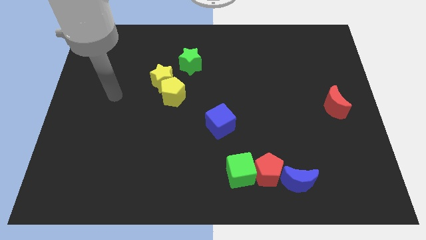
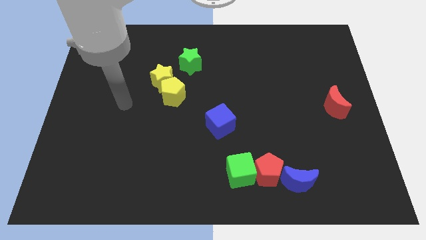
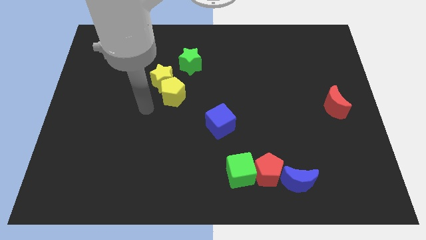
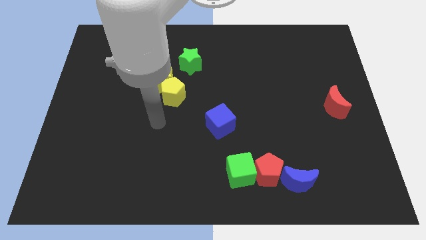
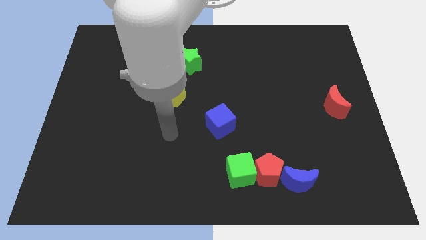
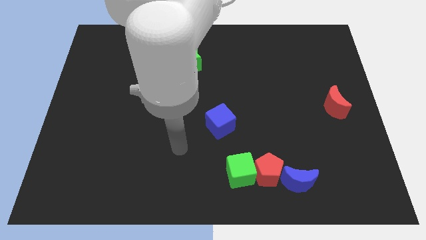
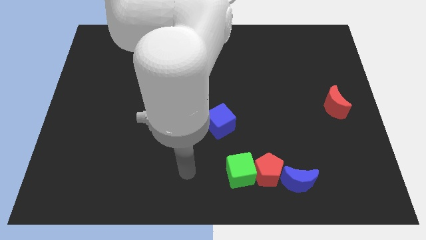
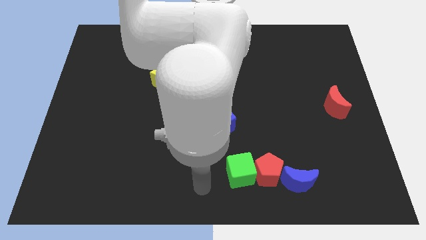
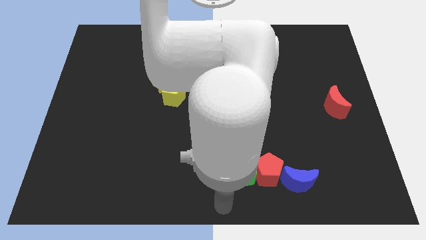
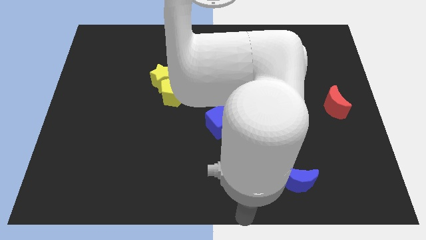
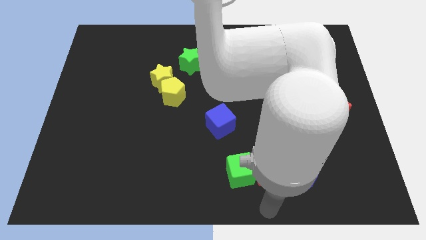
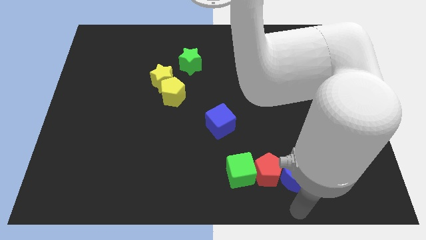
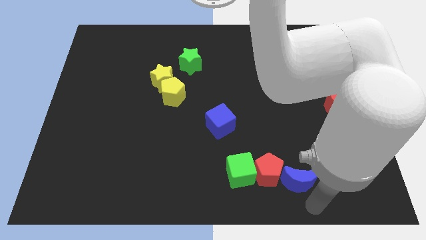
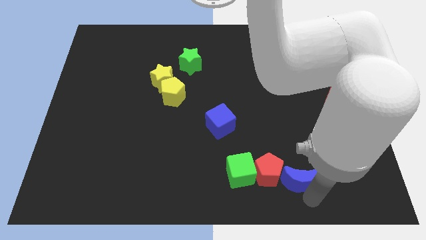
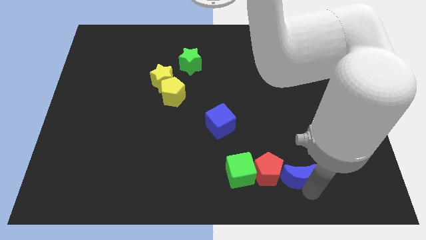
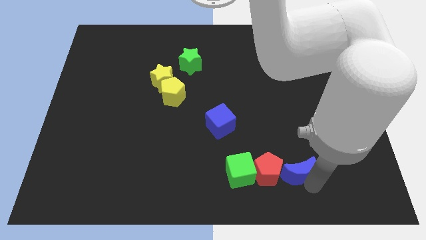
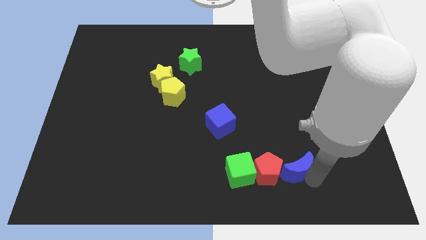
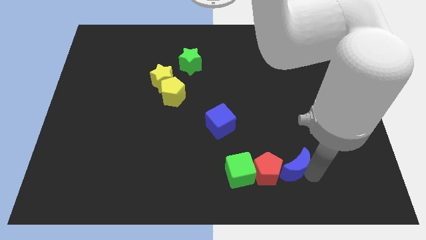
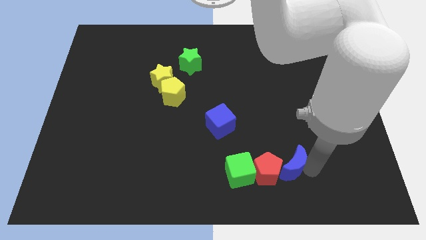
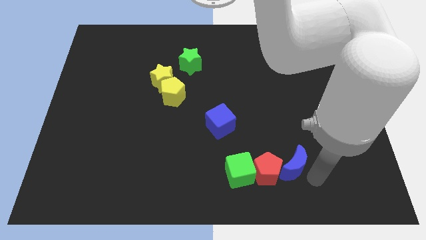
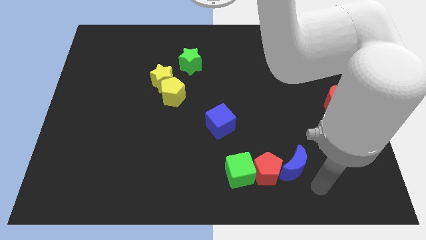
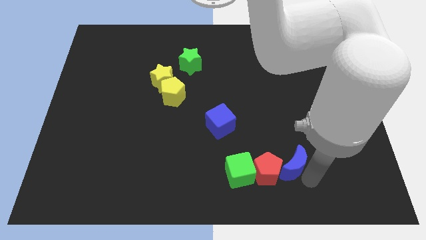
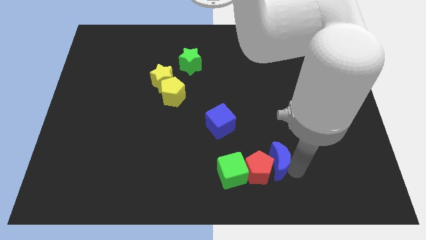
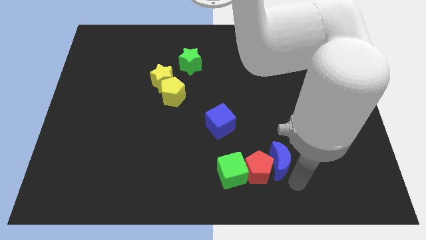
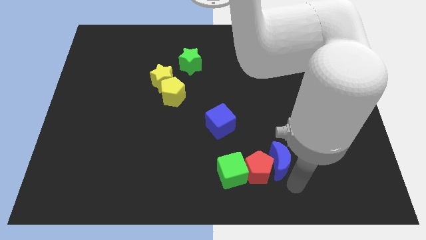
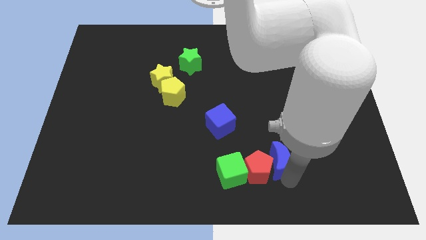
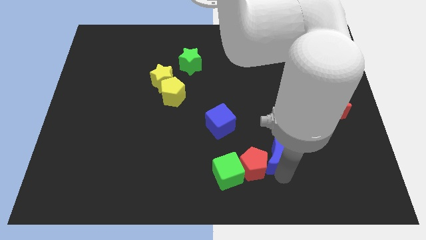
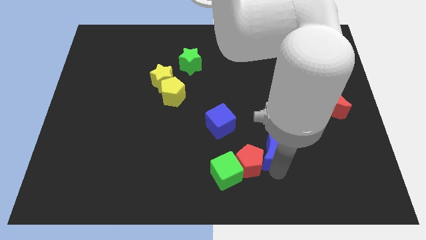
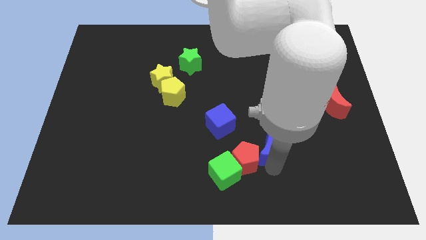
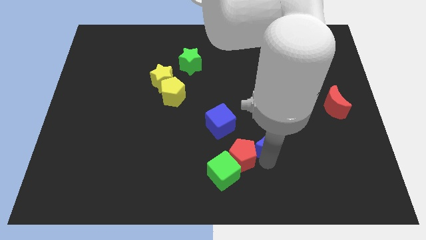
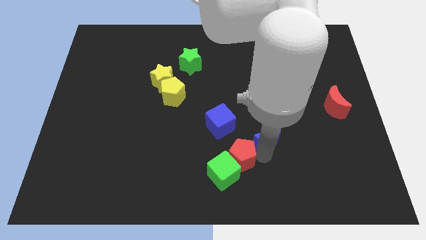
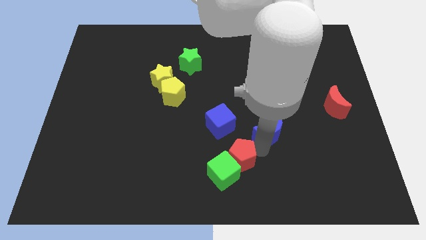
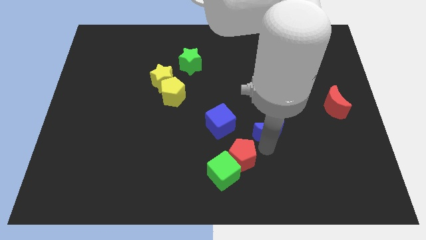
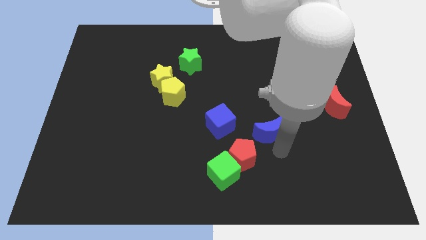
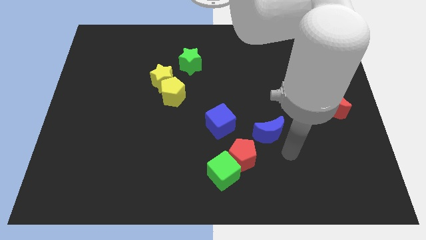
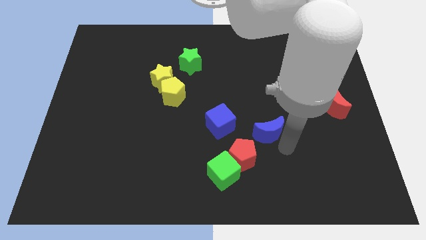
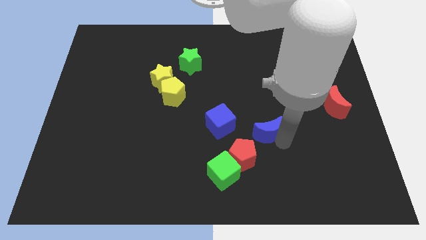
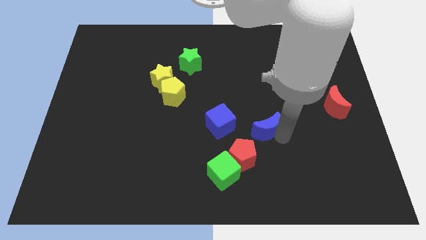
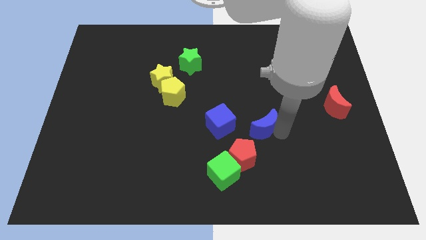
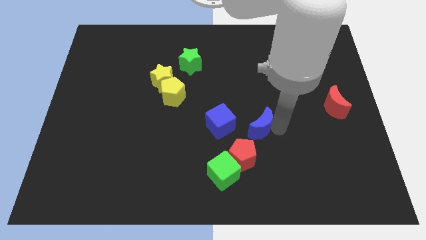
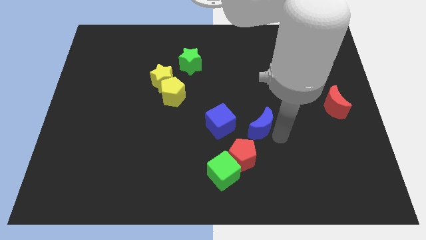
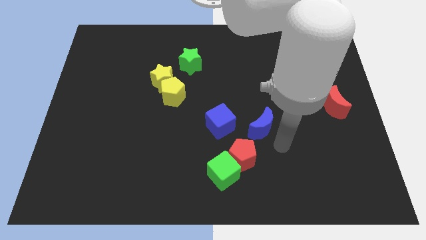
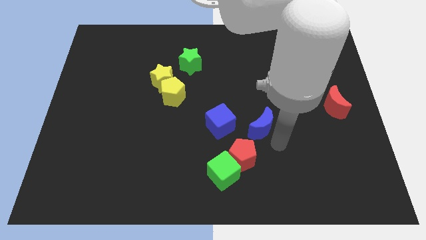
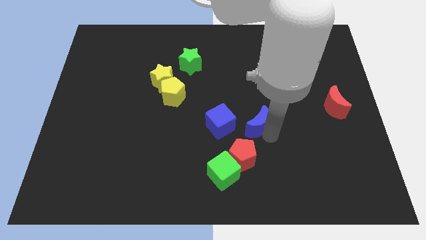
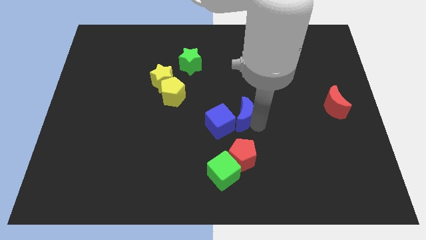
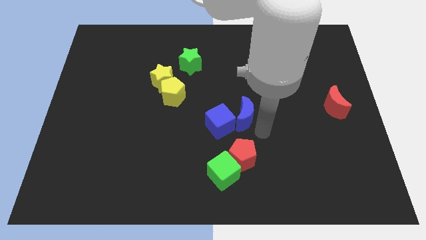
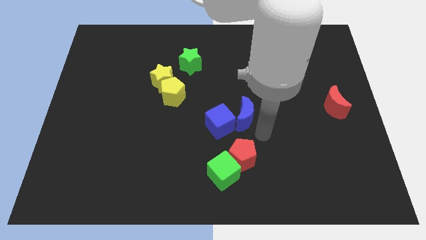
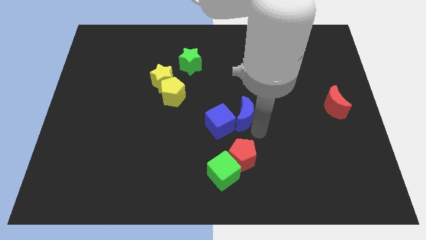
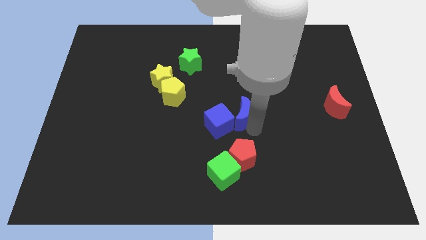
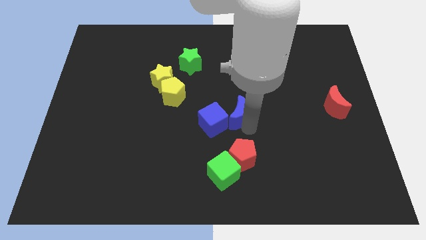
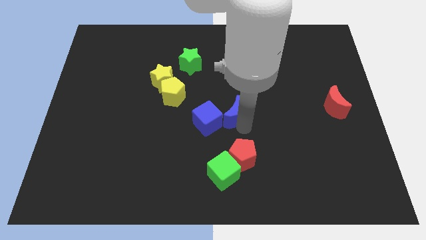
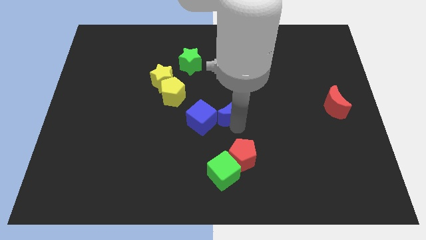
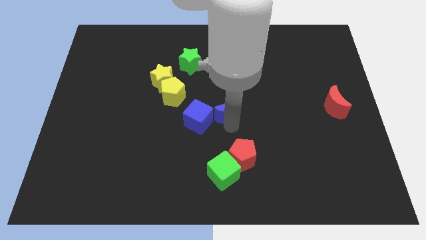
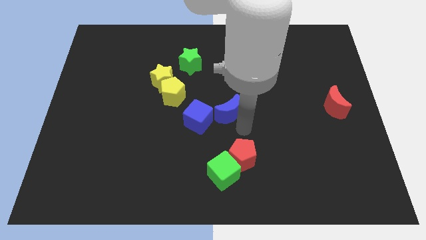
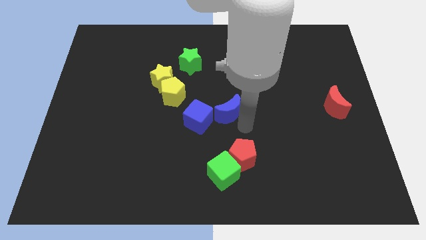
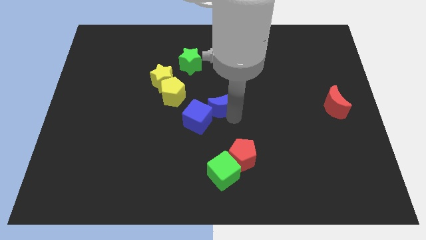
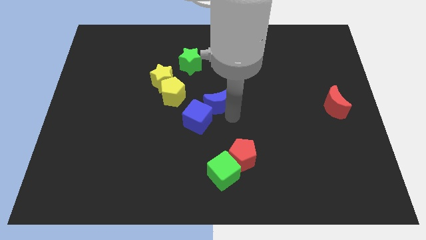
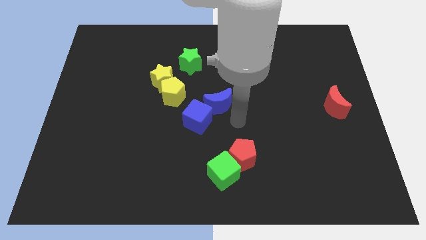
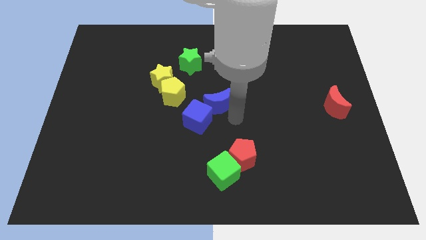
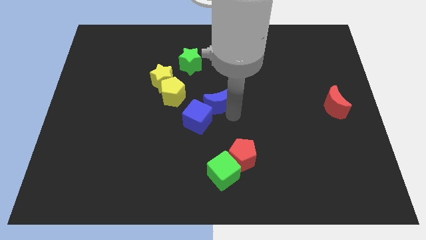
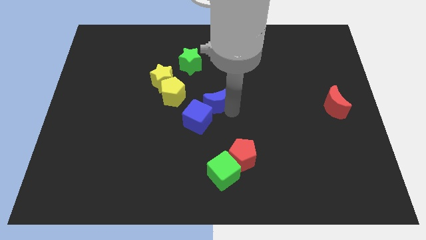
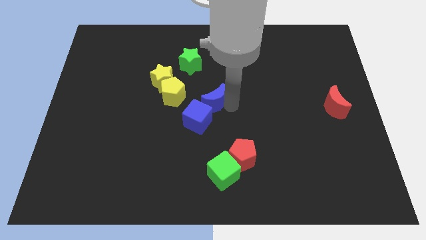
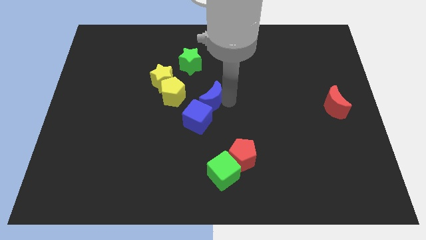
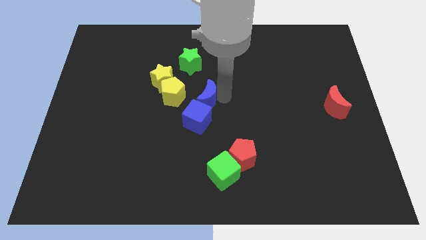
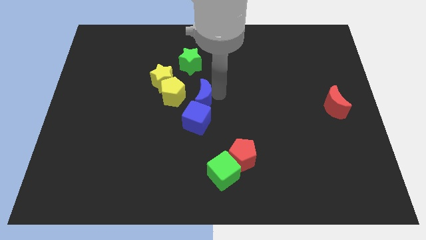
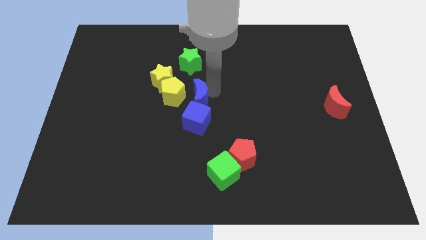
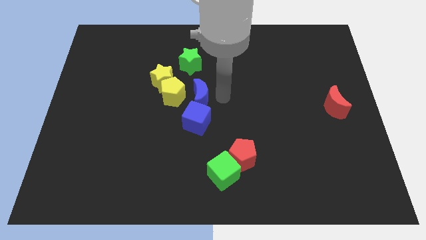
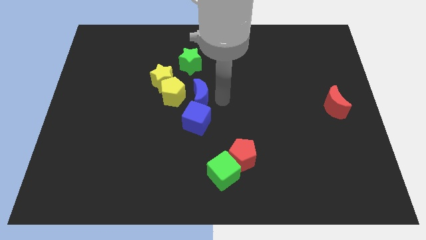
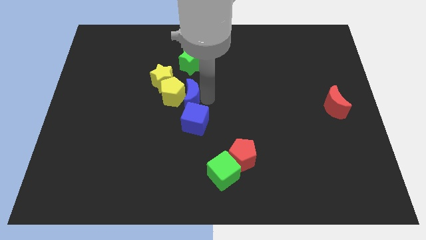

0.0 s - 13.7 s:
put the blue moon towards the yellow pentagon
